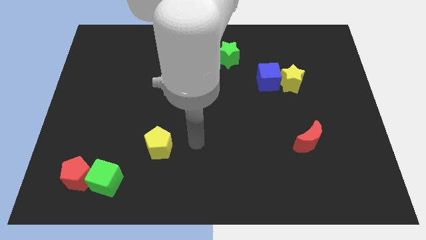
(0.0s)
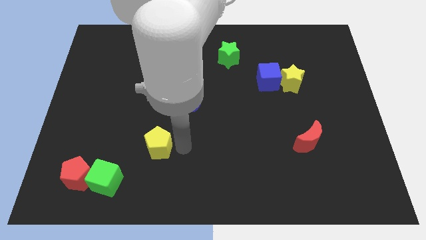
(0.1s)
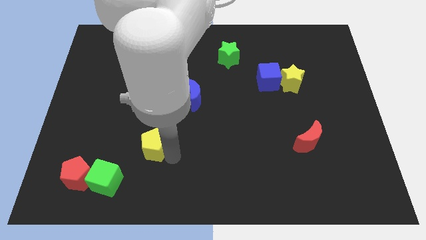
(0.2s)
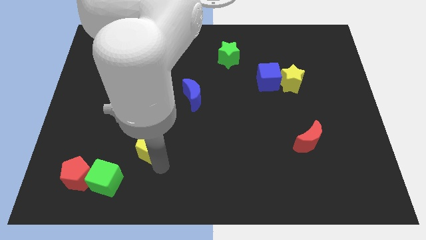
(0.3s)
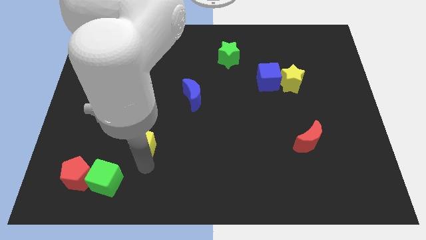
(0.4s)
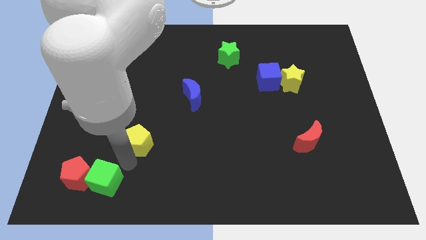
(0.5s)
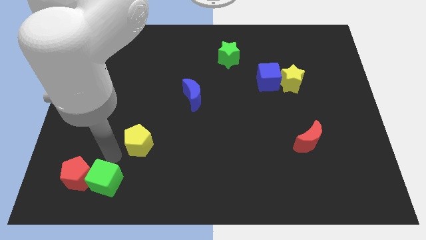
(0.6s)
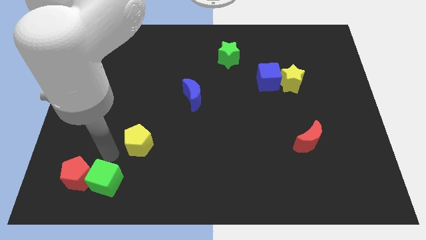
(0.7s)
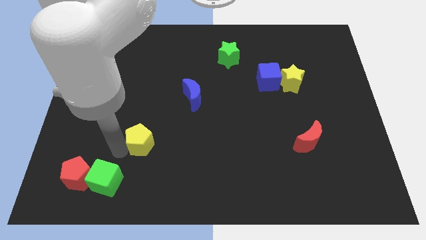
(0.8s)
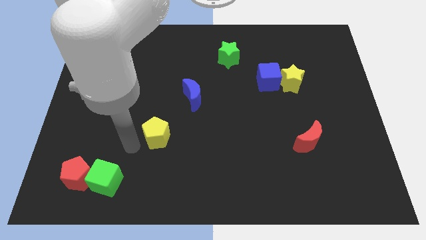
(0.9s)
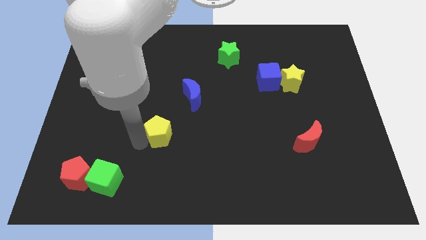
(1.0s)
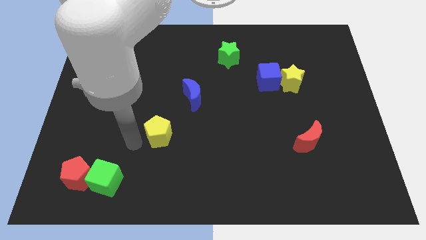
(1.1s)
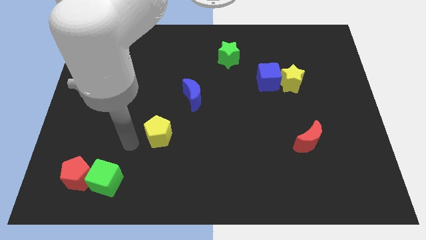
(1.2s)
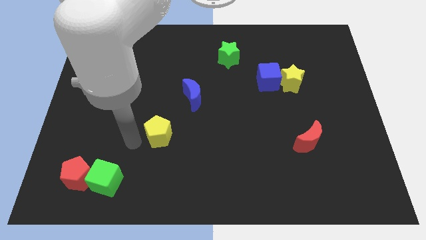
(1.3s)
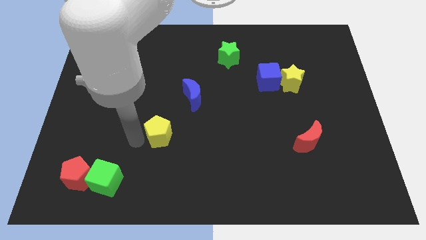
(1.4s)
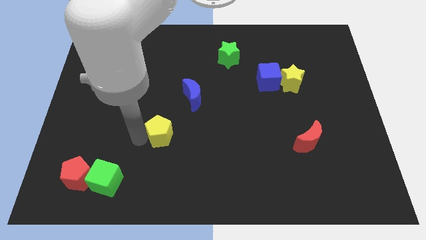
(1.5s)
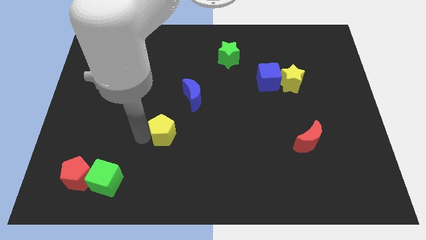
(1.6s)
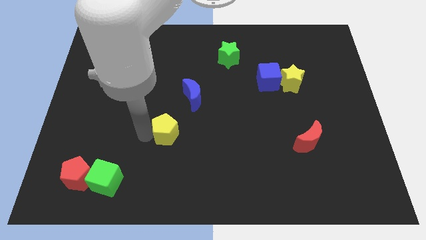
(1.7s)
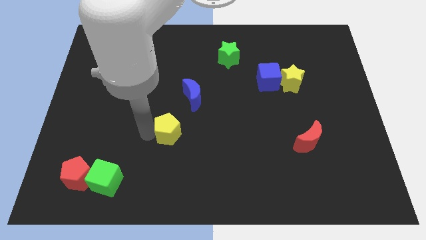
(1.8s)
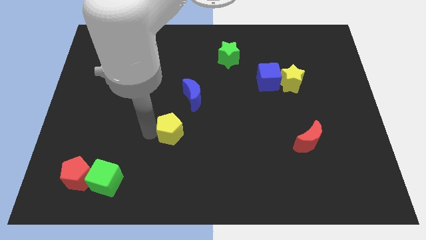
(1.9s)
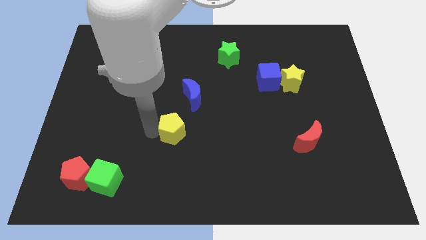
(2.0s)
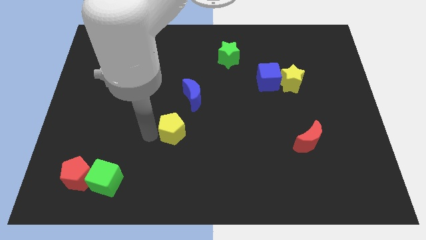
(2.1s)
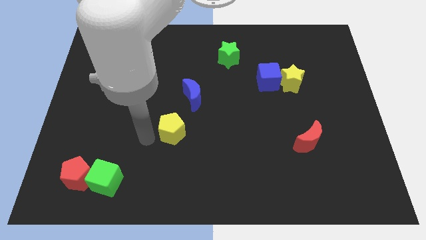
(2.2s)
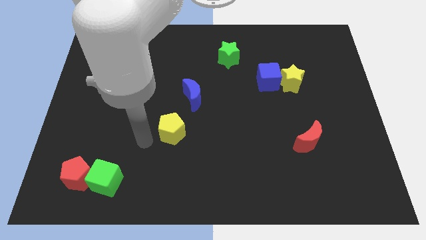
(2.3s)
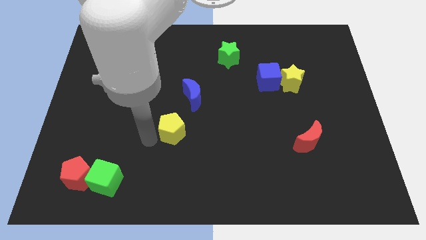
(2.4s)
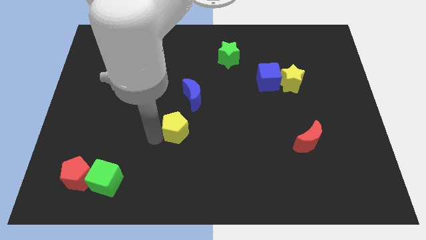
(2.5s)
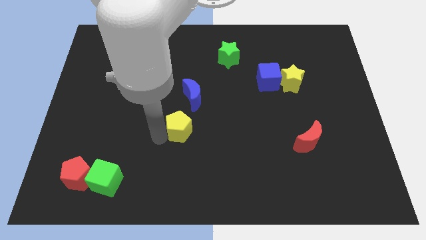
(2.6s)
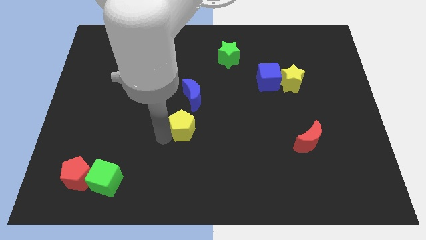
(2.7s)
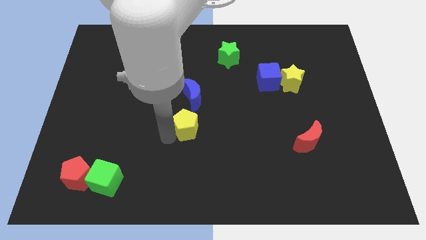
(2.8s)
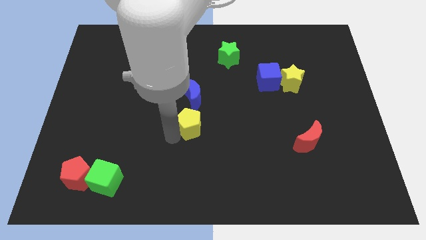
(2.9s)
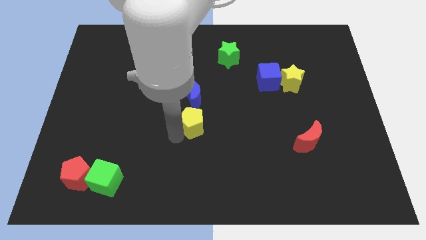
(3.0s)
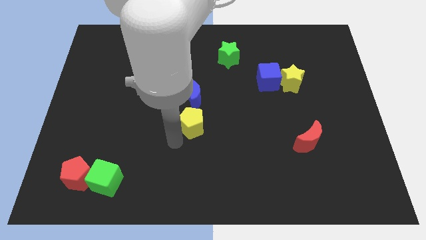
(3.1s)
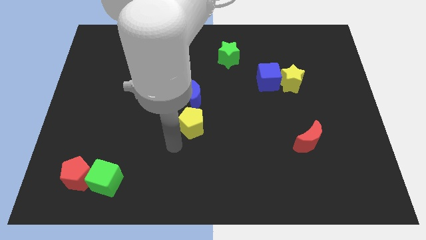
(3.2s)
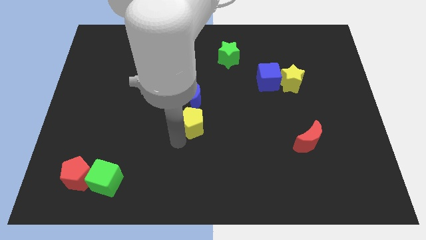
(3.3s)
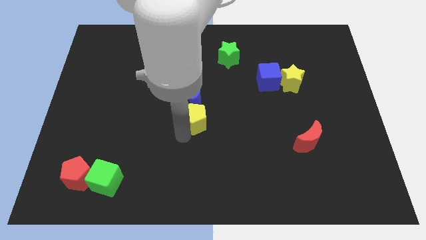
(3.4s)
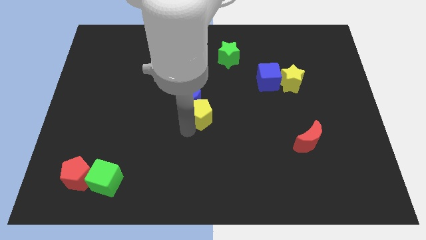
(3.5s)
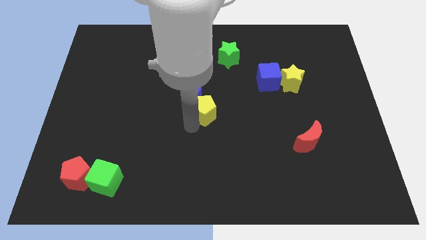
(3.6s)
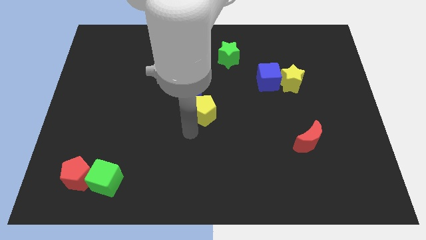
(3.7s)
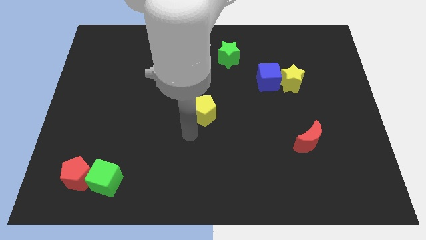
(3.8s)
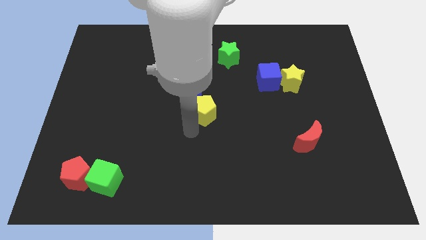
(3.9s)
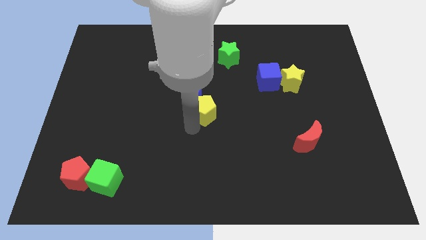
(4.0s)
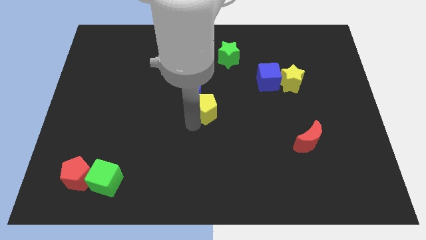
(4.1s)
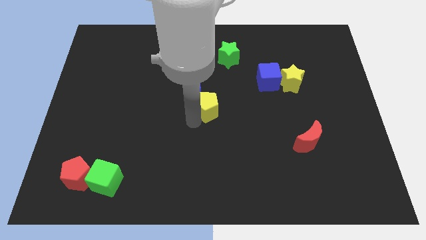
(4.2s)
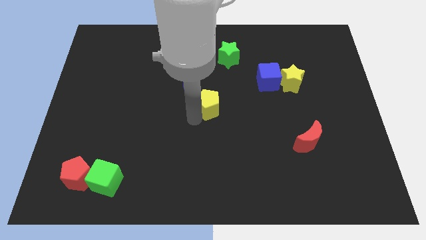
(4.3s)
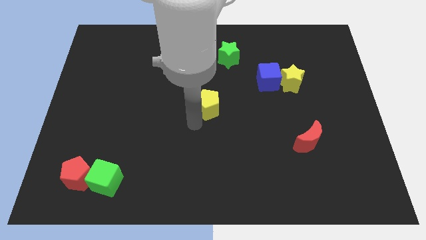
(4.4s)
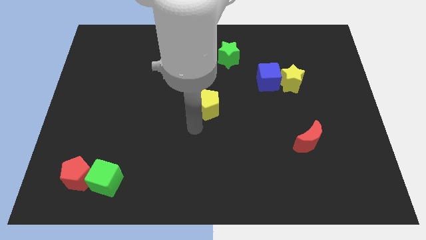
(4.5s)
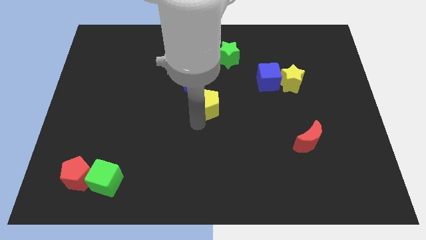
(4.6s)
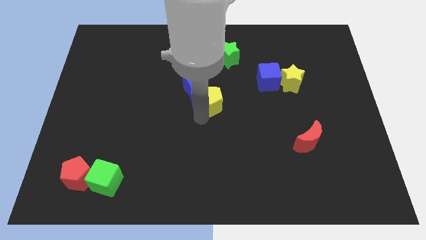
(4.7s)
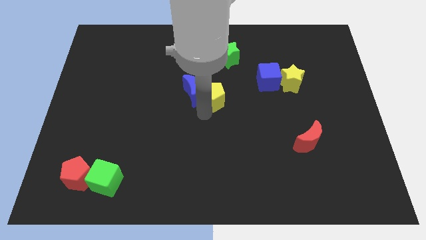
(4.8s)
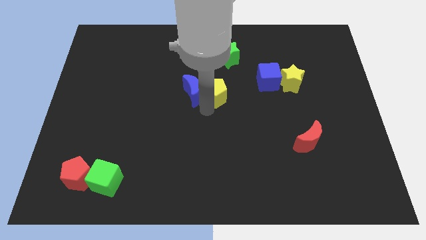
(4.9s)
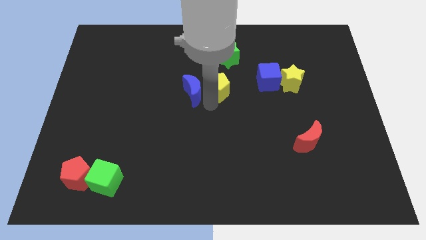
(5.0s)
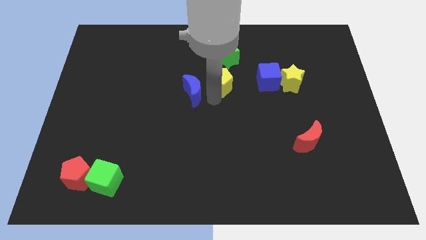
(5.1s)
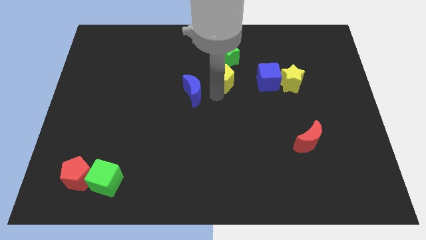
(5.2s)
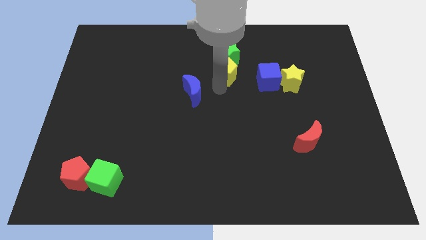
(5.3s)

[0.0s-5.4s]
push the yellow pentagon next to the green star

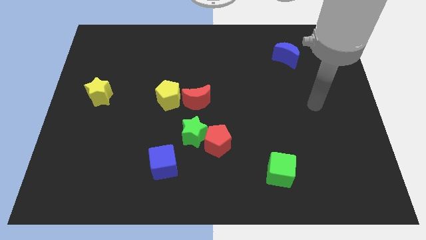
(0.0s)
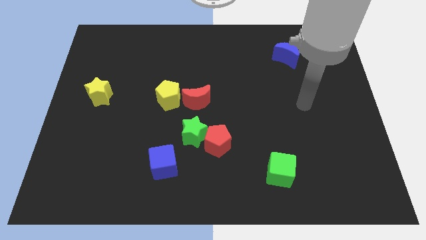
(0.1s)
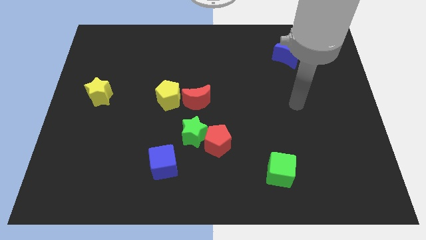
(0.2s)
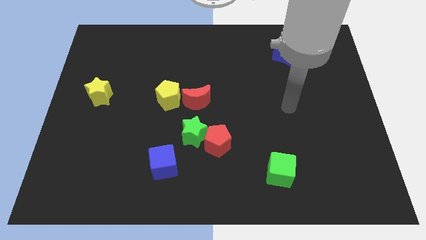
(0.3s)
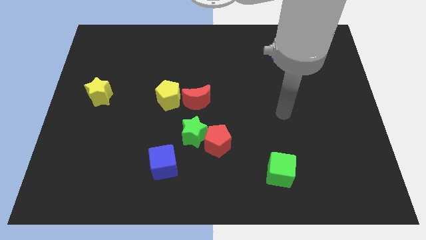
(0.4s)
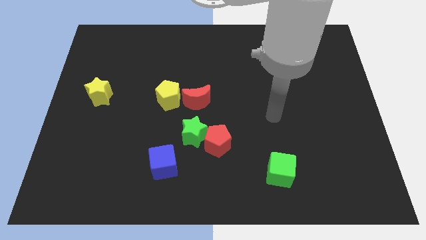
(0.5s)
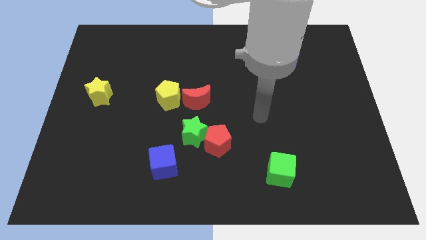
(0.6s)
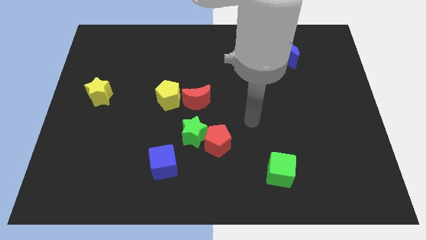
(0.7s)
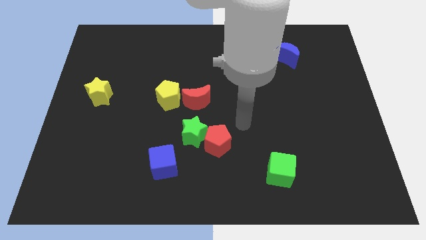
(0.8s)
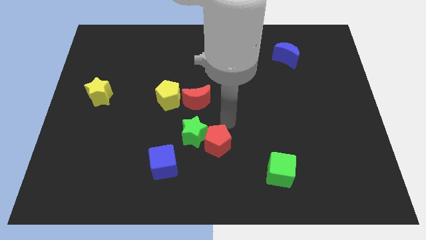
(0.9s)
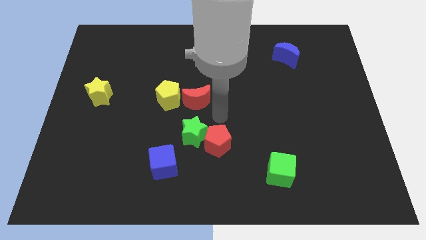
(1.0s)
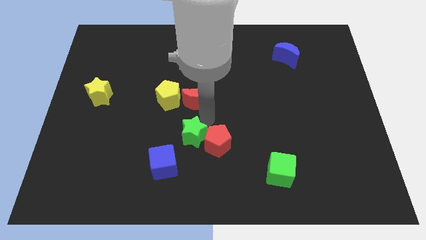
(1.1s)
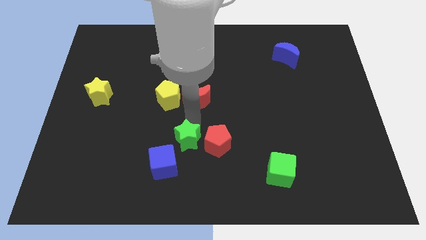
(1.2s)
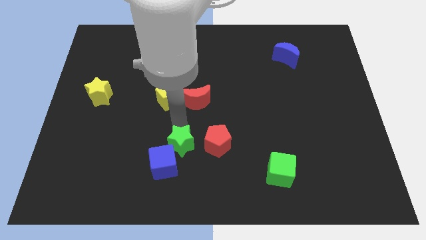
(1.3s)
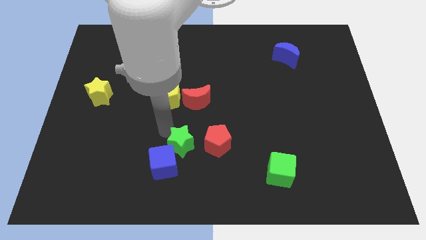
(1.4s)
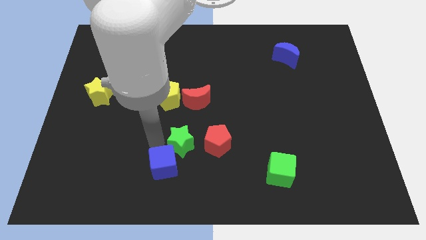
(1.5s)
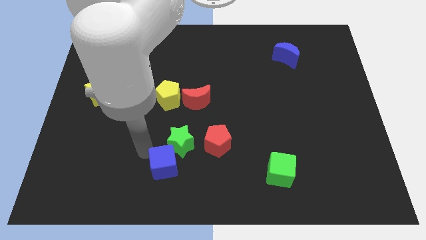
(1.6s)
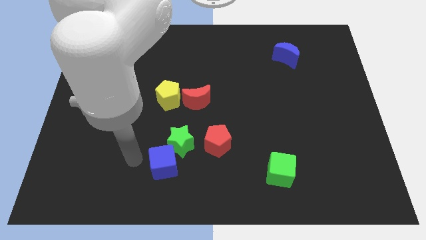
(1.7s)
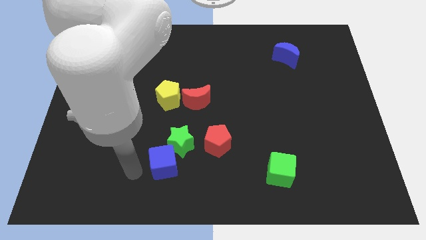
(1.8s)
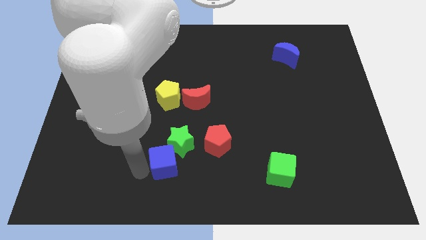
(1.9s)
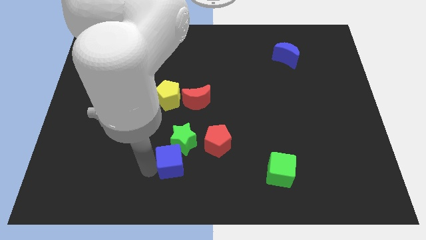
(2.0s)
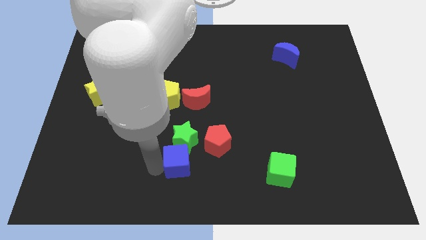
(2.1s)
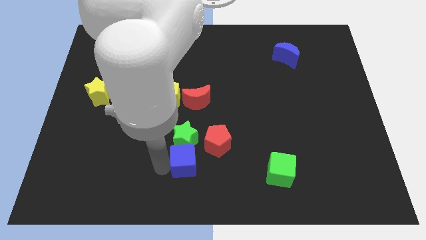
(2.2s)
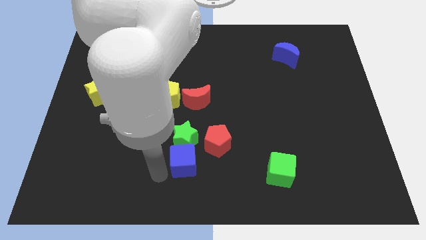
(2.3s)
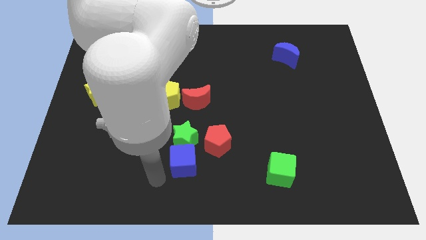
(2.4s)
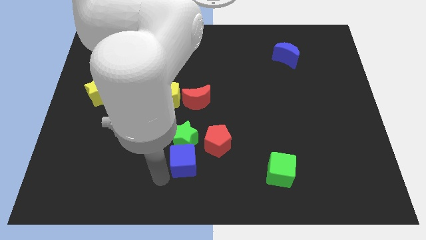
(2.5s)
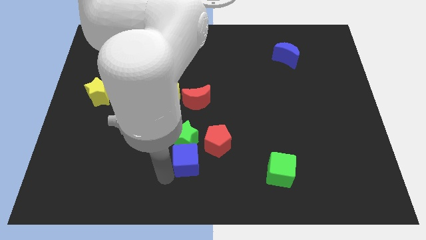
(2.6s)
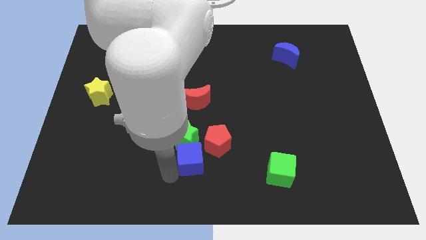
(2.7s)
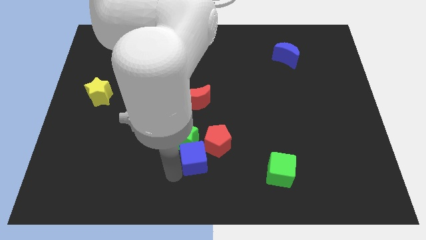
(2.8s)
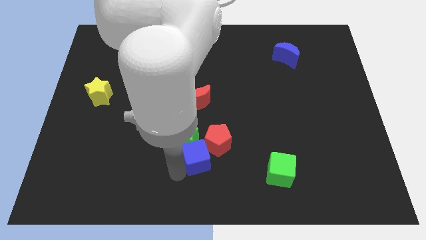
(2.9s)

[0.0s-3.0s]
slide the blue cube next to the red pentagon
